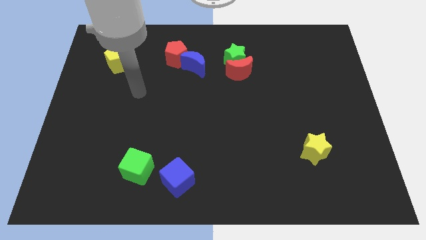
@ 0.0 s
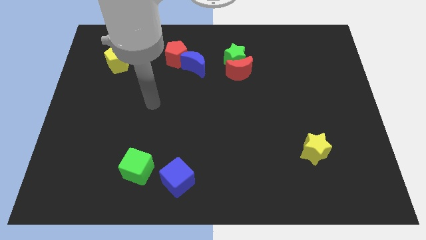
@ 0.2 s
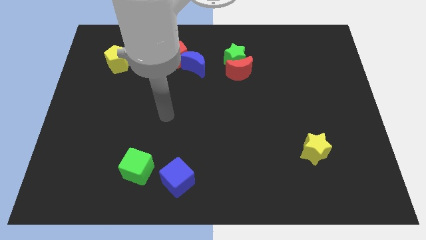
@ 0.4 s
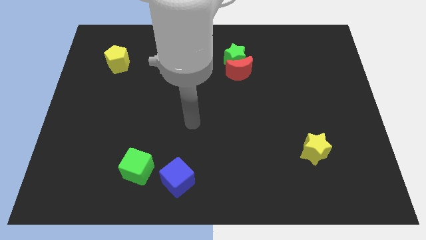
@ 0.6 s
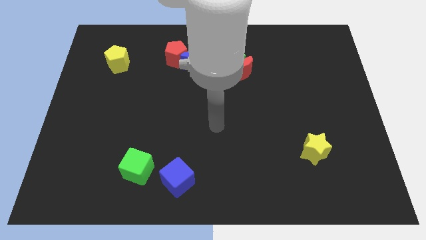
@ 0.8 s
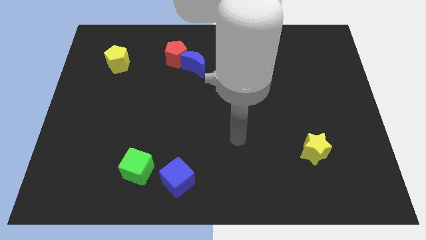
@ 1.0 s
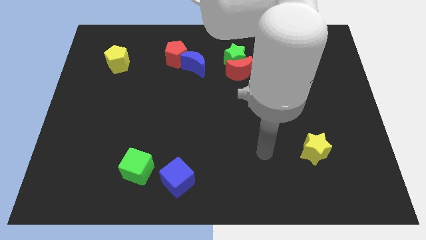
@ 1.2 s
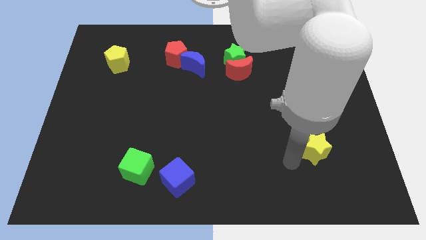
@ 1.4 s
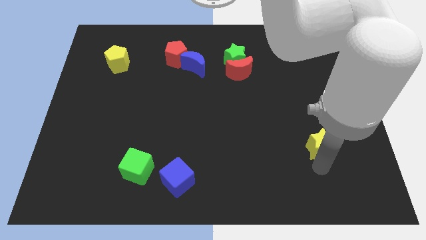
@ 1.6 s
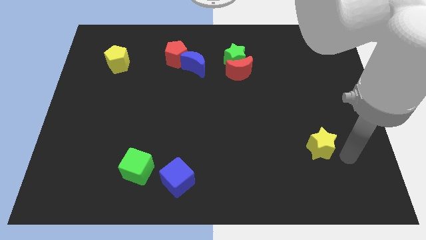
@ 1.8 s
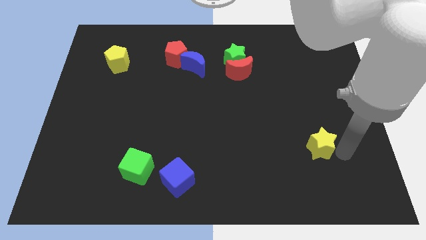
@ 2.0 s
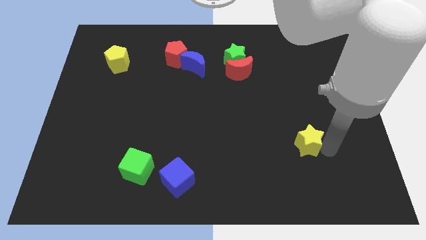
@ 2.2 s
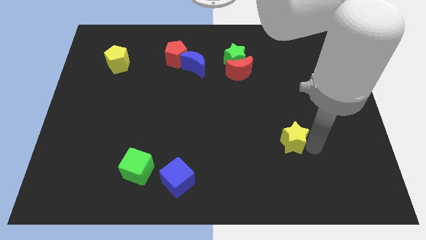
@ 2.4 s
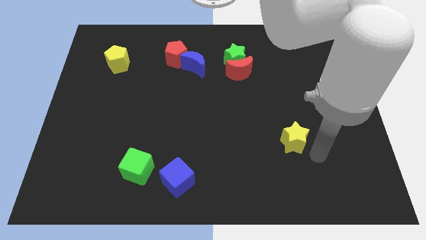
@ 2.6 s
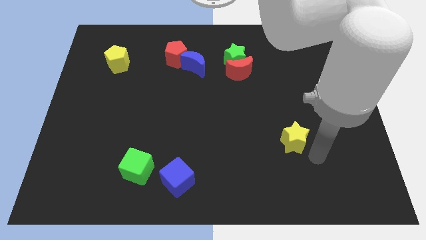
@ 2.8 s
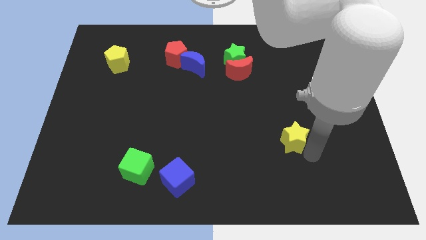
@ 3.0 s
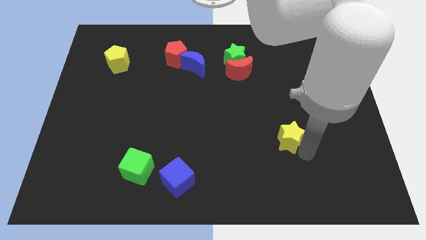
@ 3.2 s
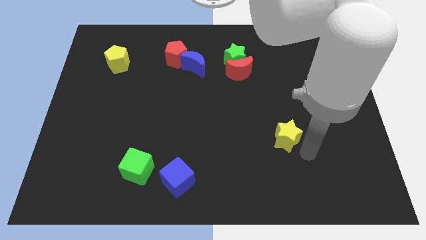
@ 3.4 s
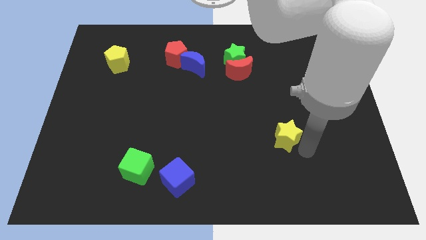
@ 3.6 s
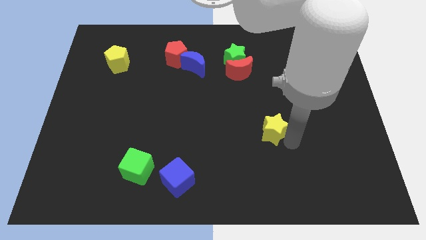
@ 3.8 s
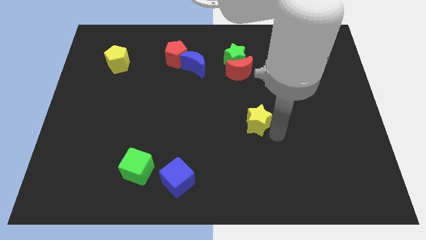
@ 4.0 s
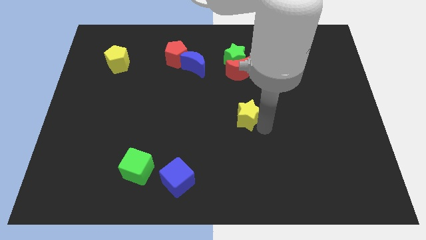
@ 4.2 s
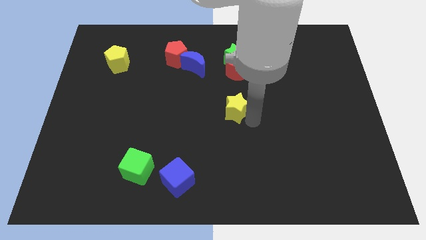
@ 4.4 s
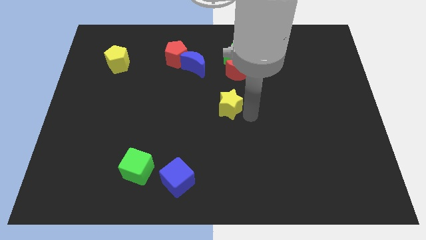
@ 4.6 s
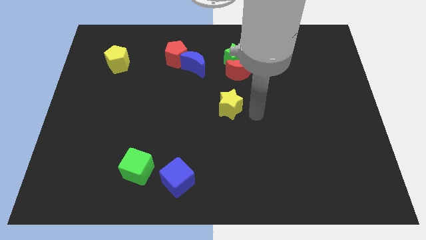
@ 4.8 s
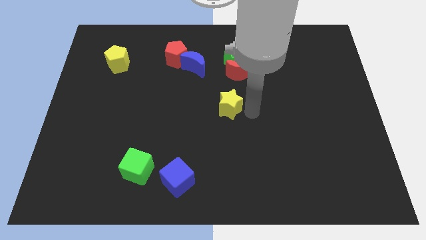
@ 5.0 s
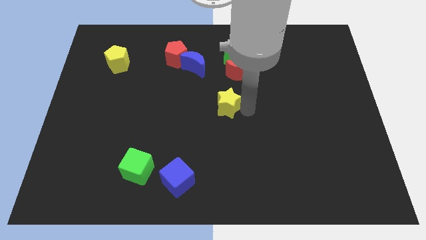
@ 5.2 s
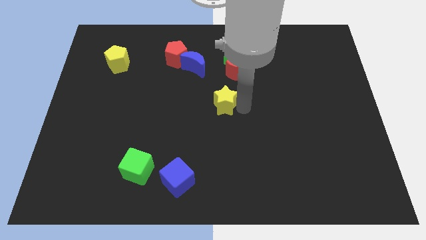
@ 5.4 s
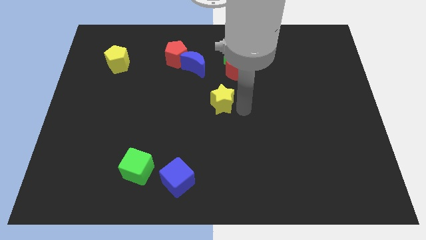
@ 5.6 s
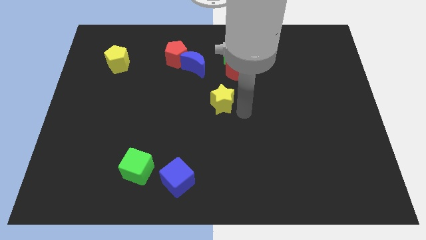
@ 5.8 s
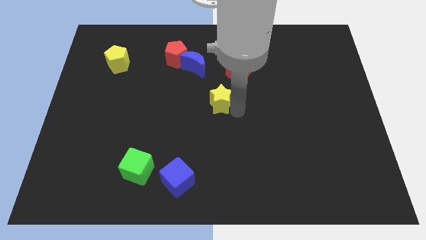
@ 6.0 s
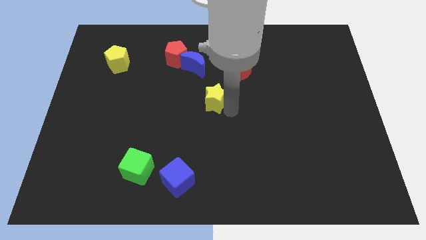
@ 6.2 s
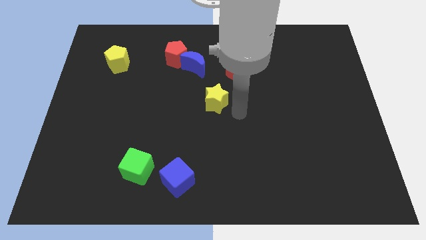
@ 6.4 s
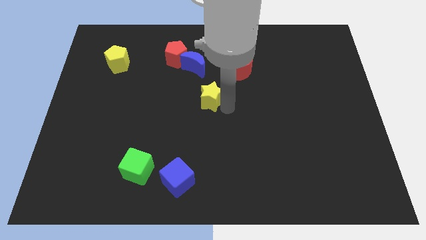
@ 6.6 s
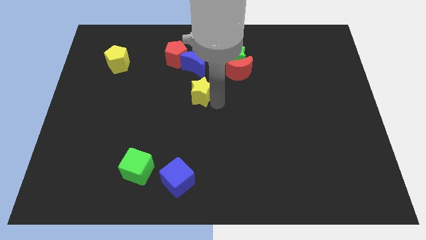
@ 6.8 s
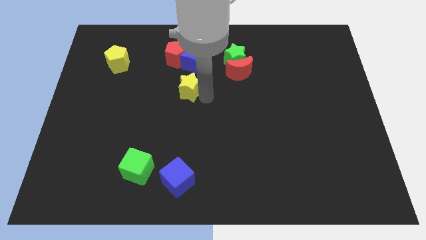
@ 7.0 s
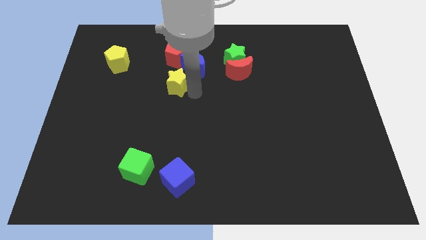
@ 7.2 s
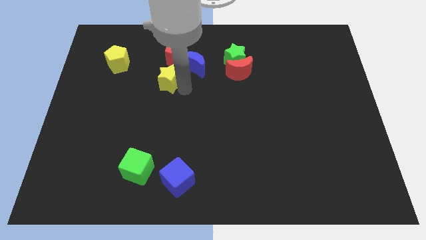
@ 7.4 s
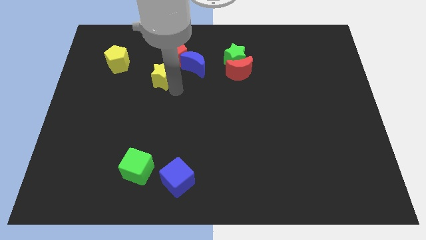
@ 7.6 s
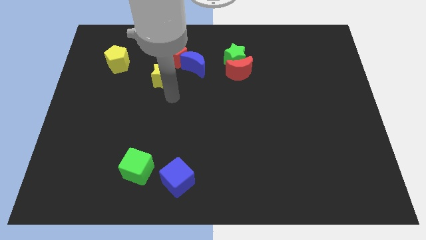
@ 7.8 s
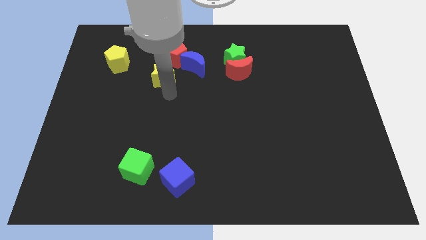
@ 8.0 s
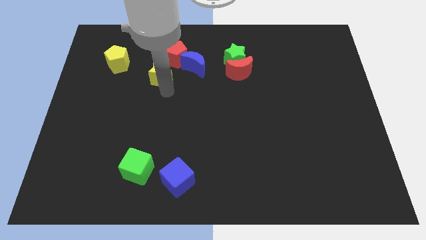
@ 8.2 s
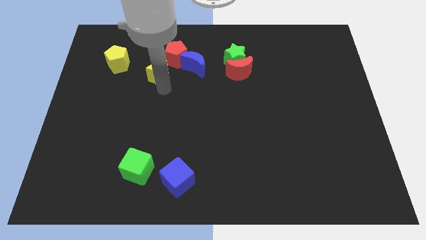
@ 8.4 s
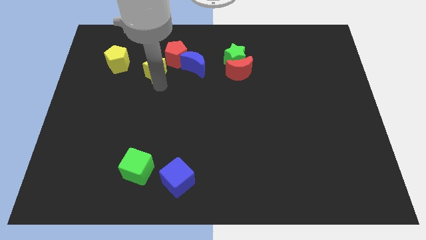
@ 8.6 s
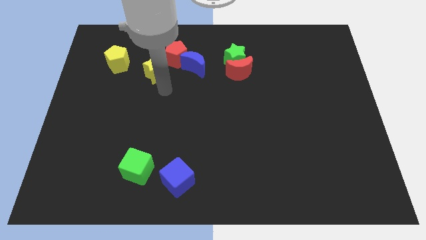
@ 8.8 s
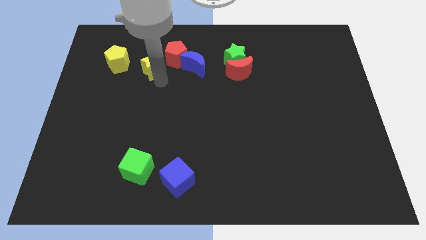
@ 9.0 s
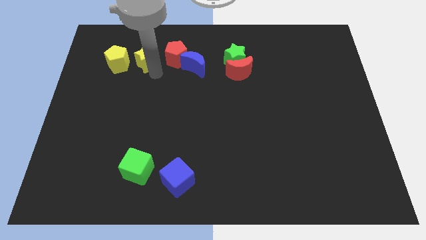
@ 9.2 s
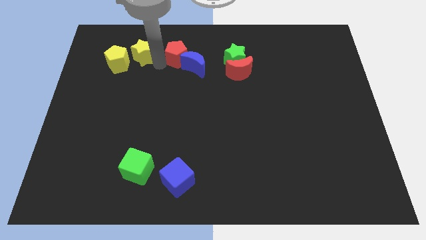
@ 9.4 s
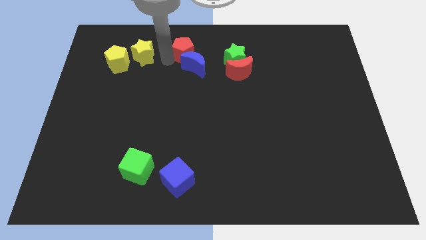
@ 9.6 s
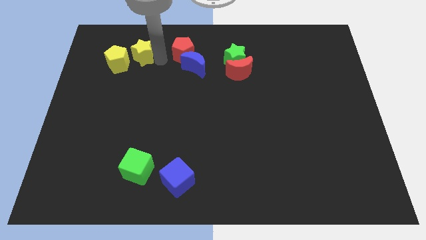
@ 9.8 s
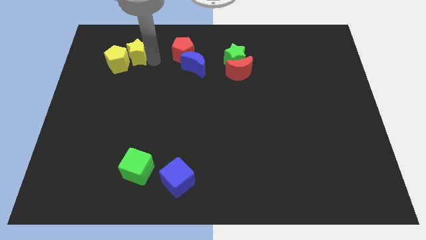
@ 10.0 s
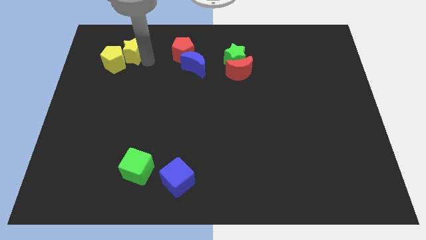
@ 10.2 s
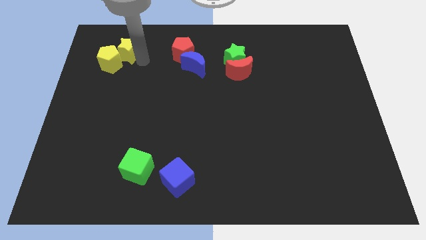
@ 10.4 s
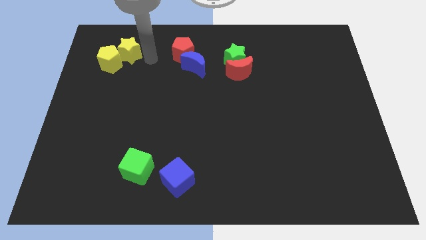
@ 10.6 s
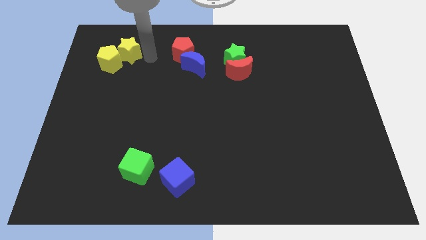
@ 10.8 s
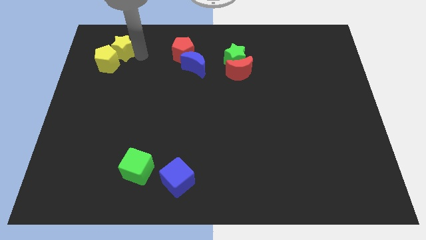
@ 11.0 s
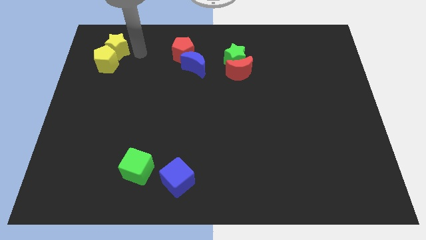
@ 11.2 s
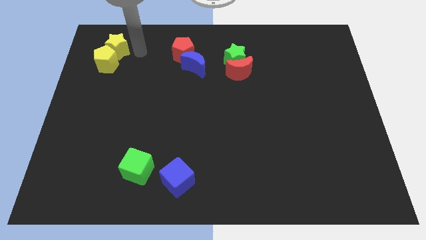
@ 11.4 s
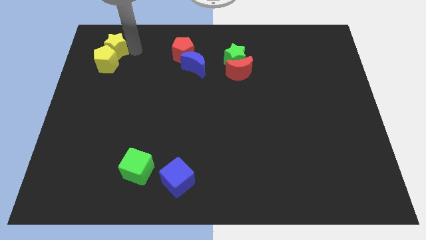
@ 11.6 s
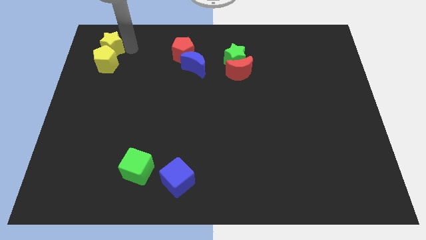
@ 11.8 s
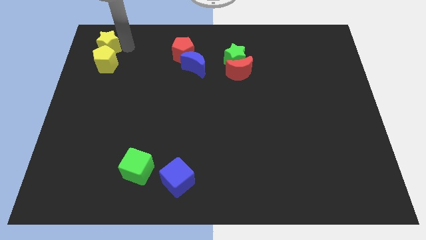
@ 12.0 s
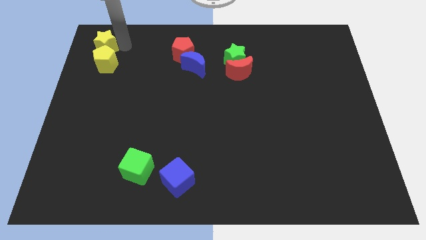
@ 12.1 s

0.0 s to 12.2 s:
push the yellow star to the top left
